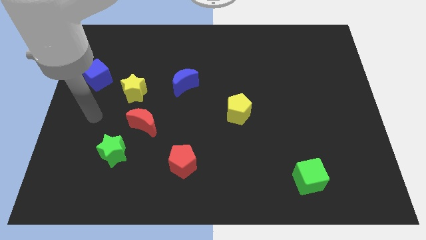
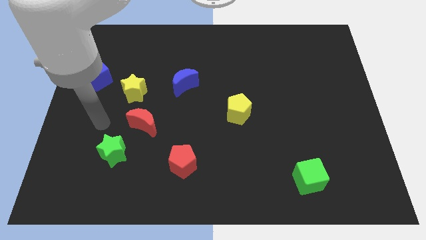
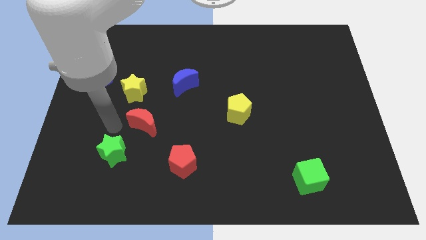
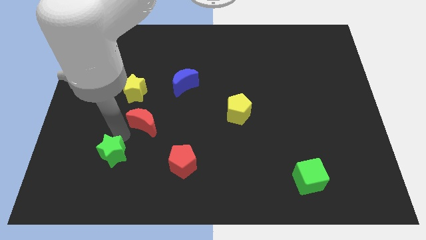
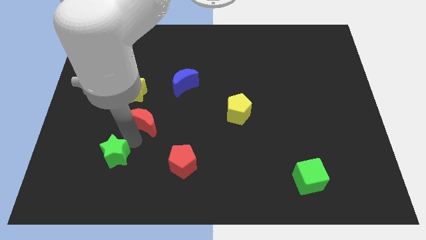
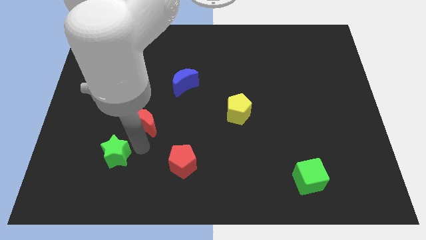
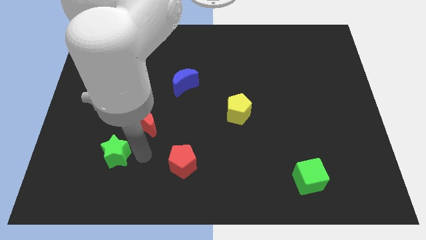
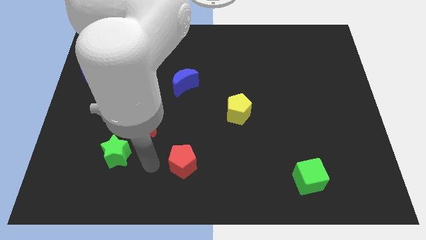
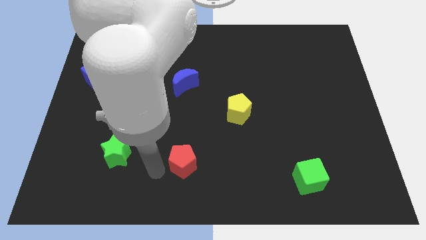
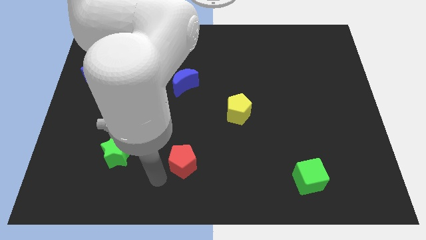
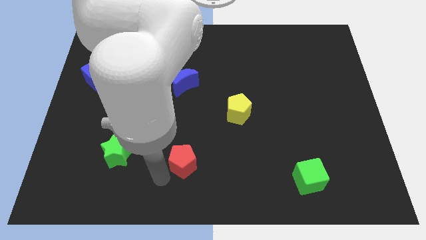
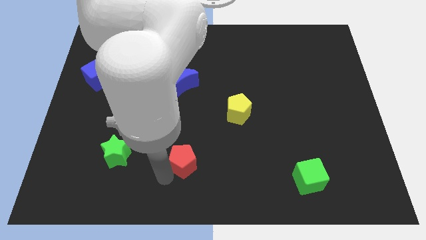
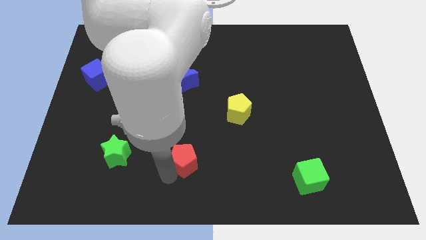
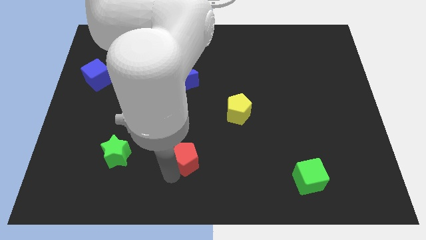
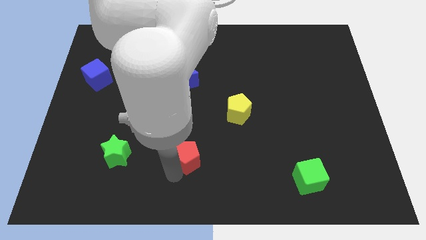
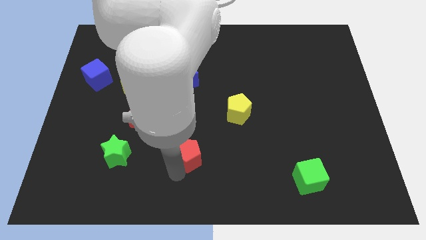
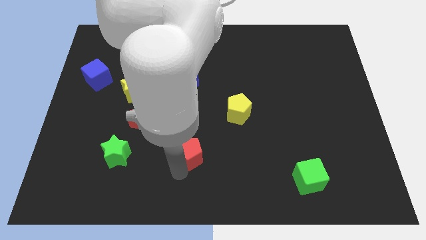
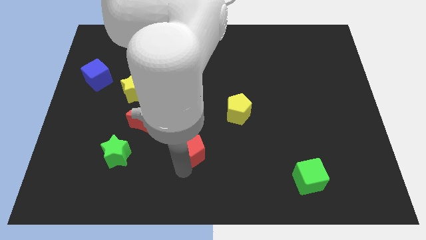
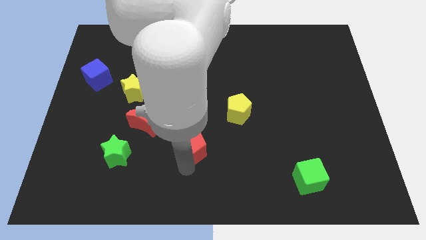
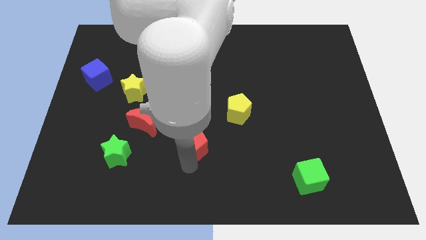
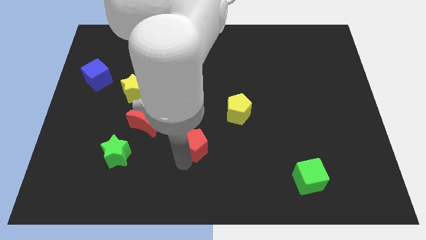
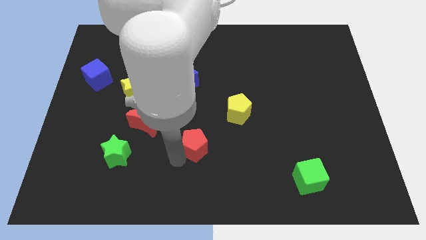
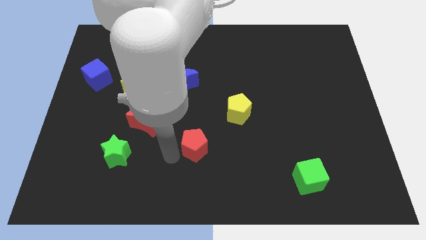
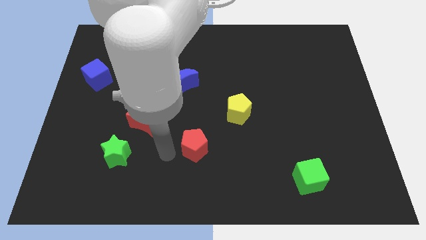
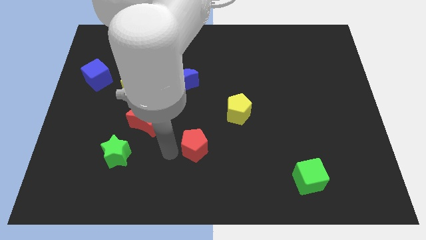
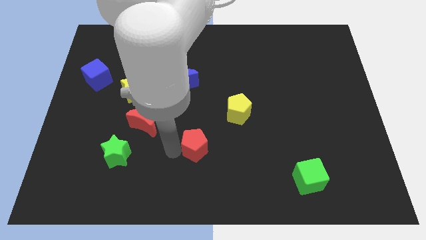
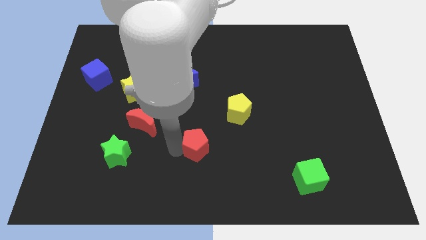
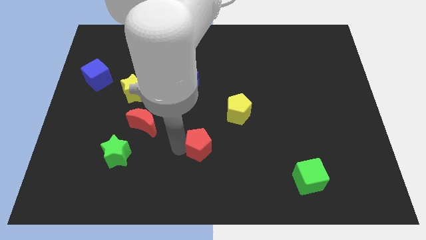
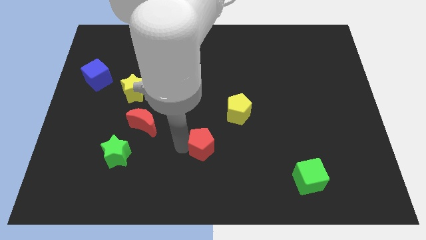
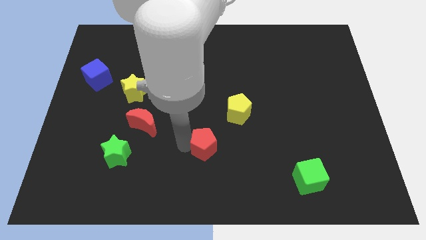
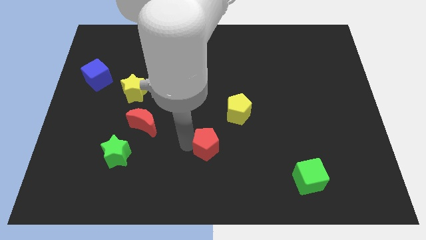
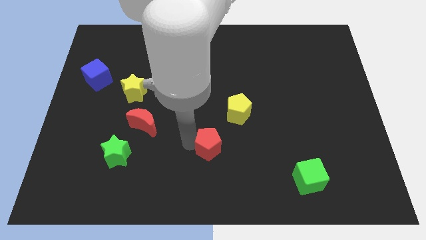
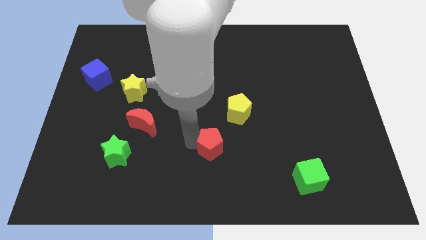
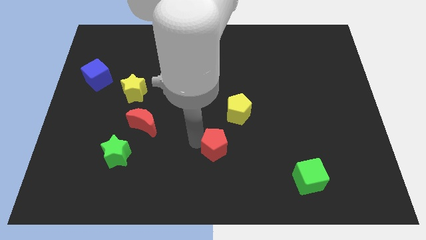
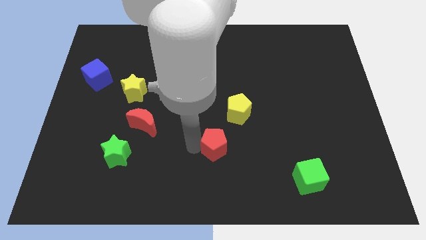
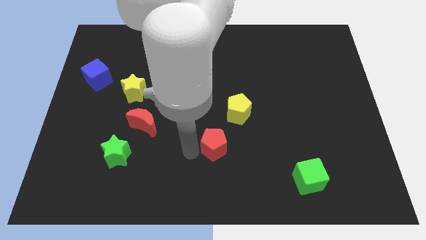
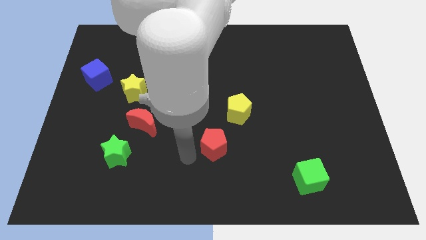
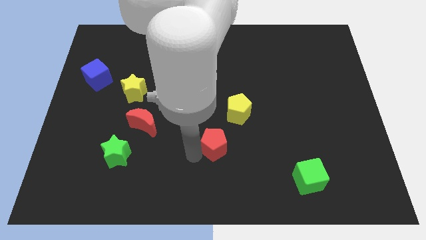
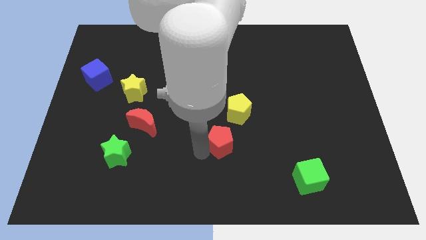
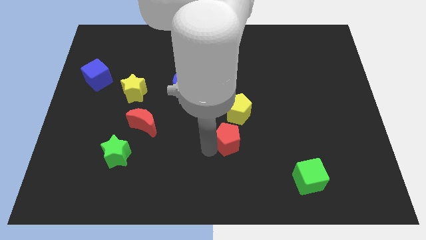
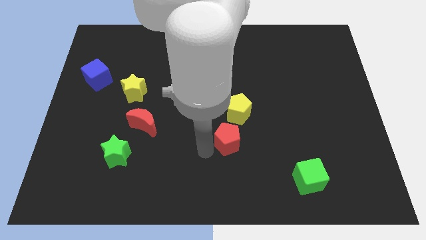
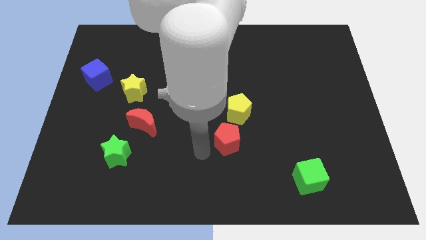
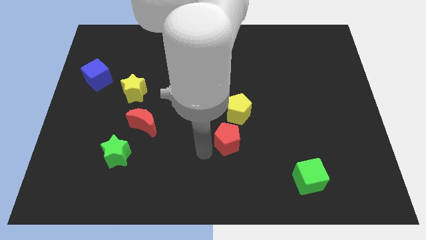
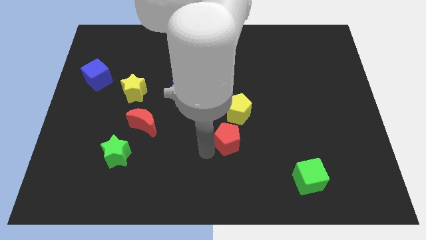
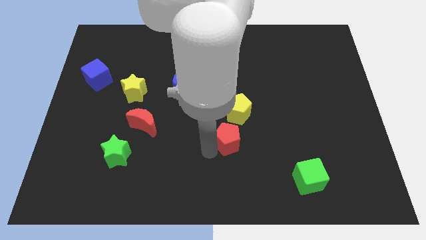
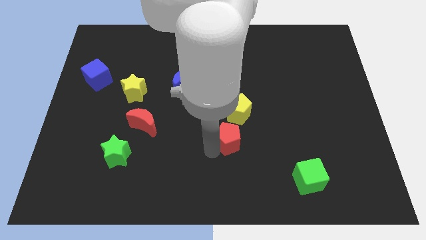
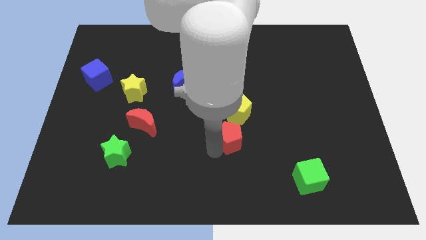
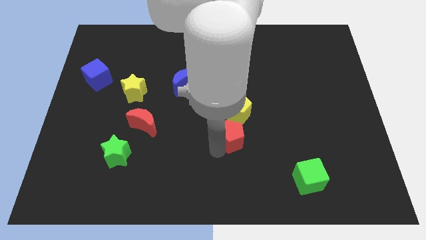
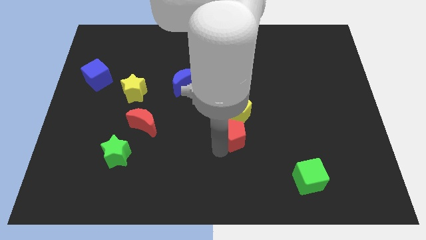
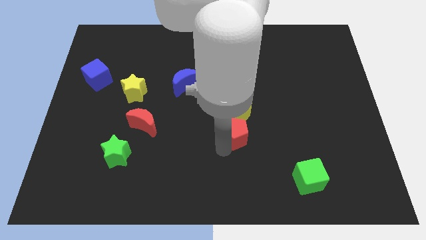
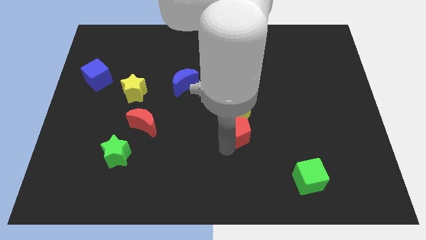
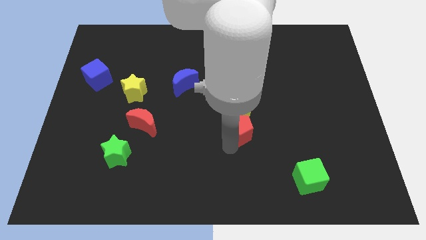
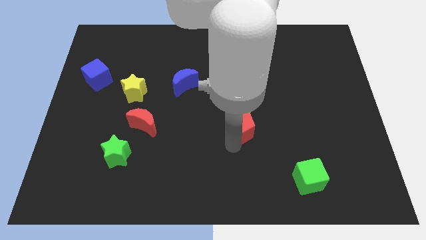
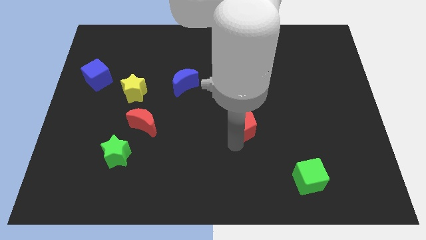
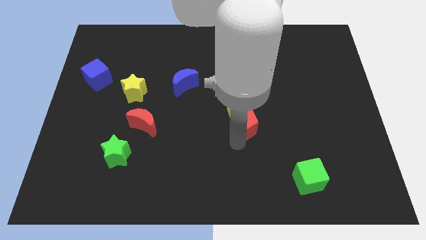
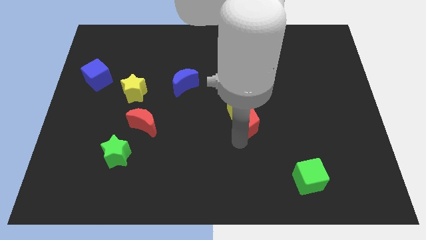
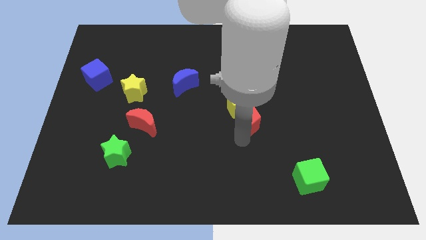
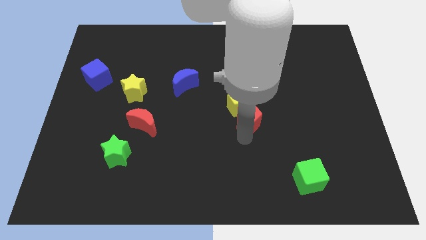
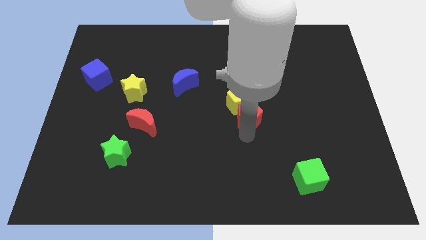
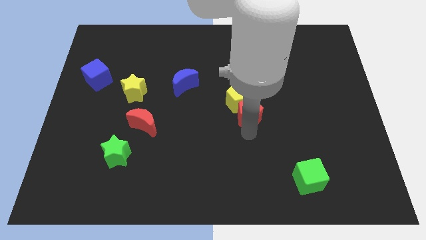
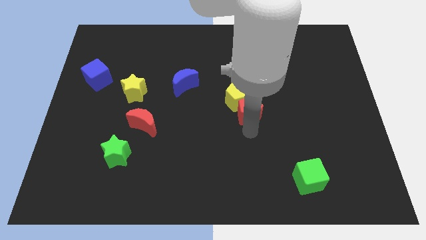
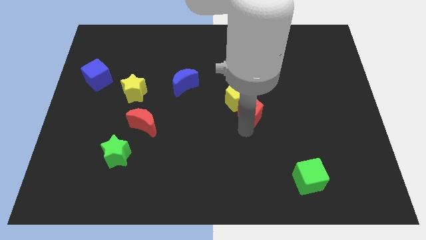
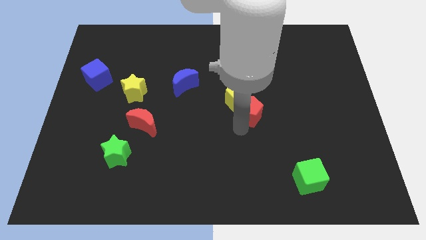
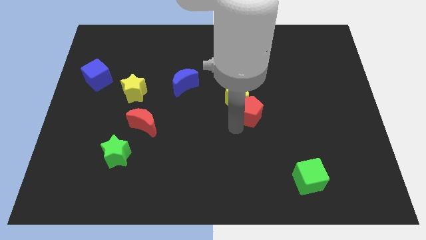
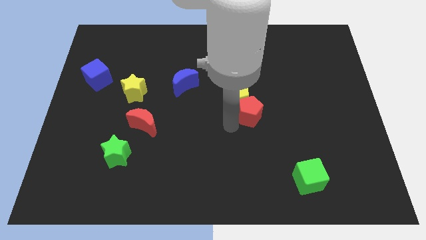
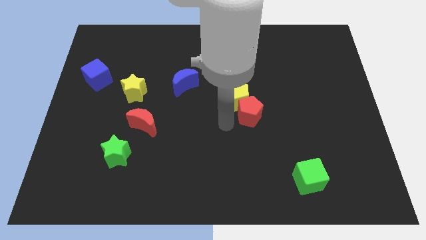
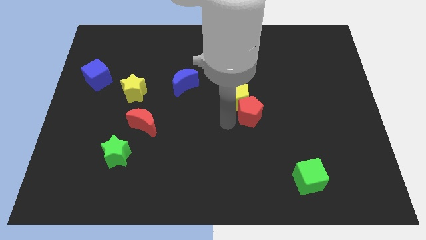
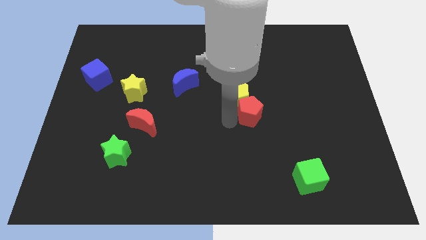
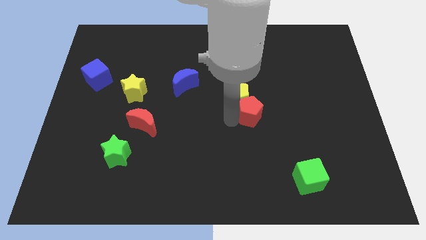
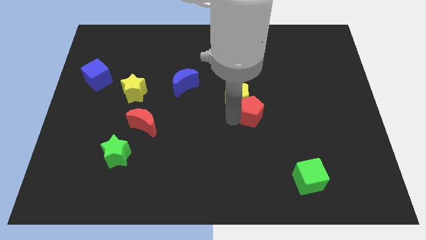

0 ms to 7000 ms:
push the red pentagon up and then right

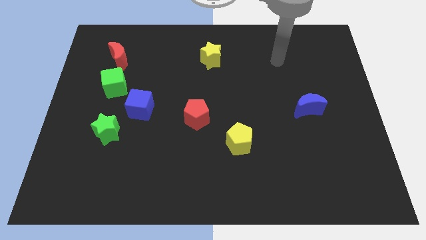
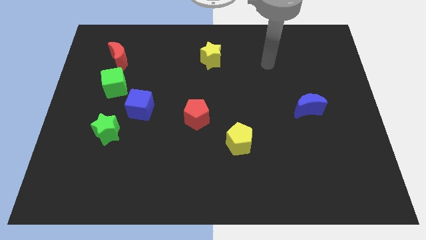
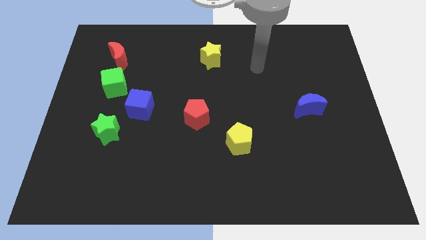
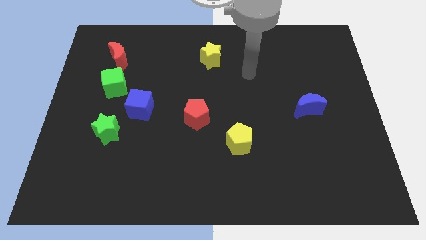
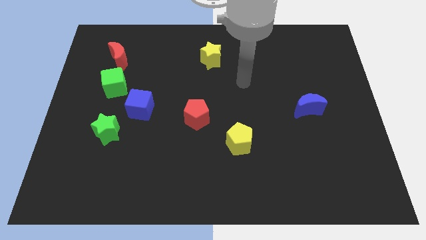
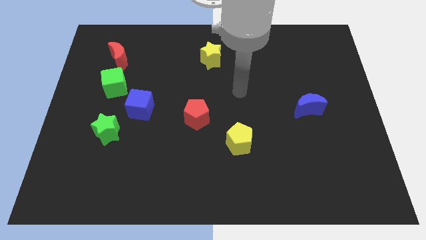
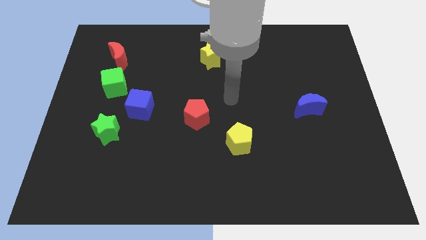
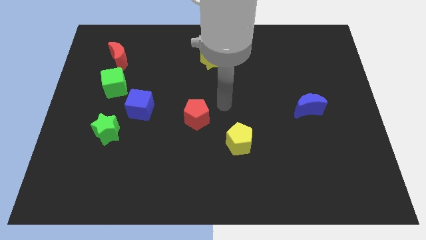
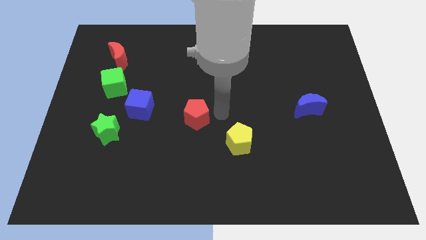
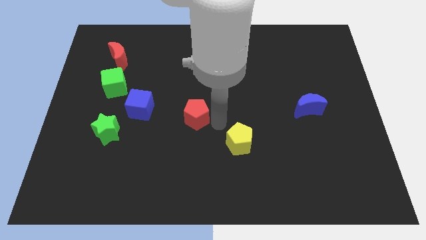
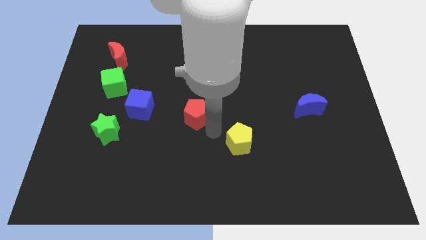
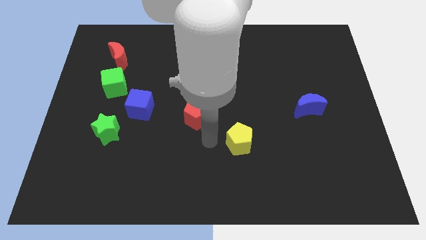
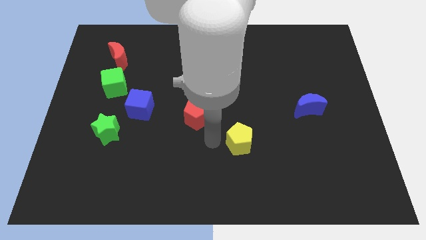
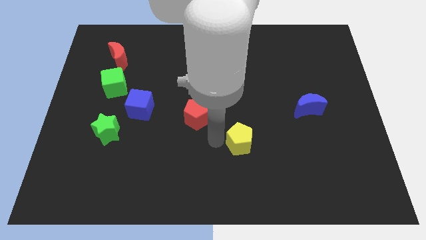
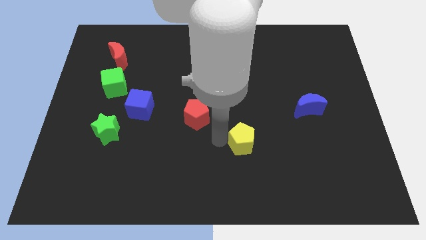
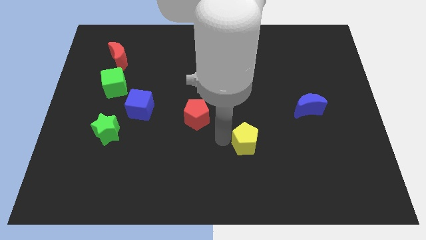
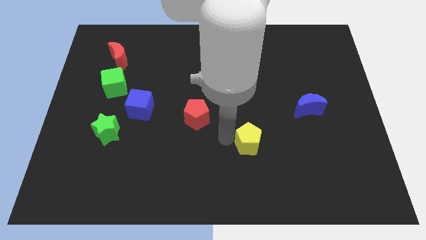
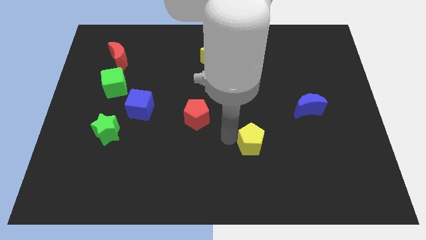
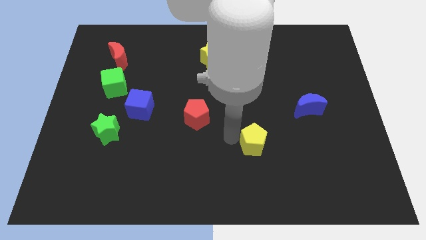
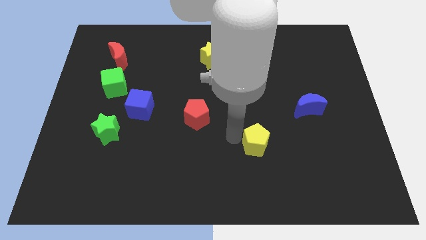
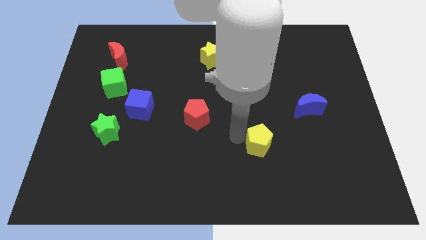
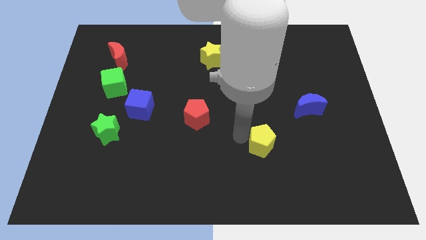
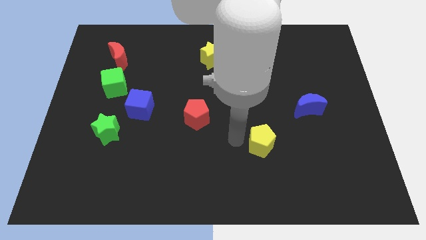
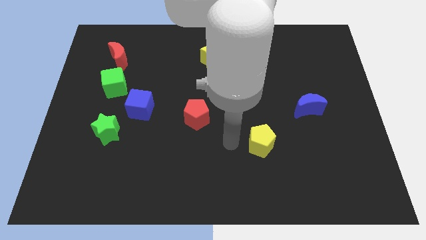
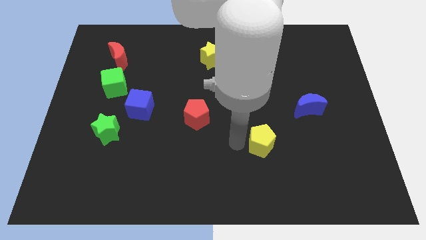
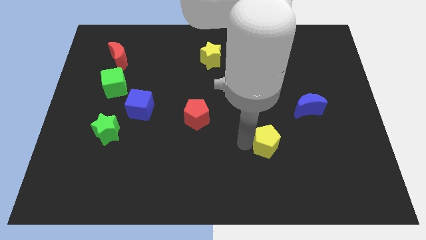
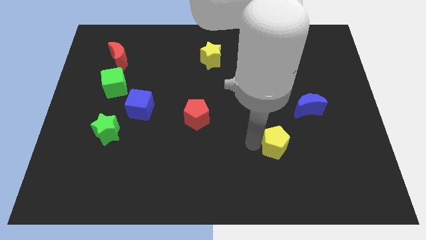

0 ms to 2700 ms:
slide the yellow pentagon a little to the right
